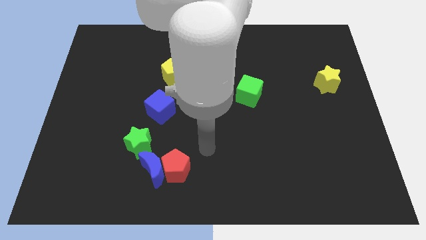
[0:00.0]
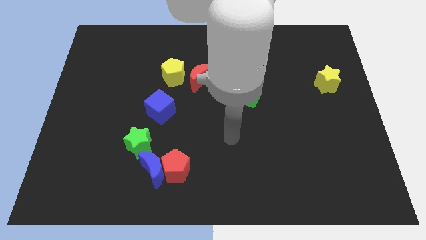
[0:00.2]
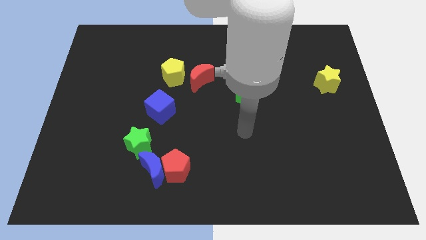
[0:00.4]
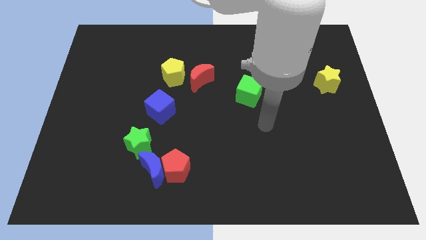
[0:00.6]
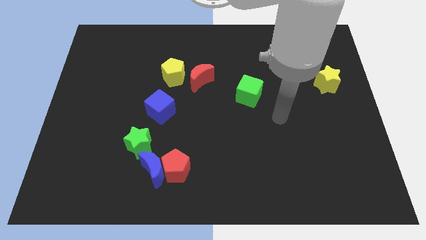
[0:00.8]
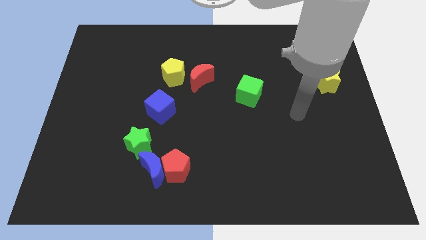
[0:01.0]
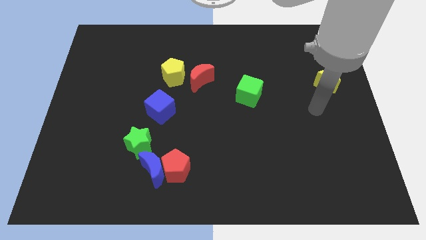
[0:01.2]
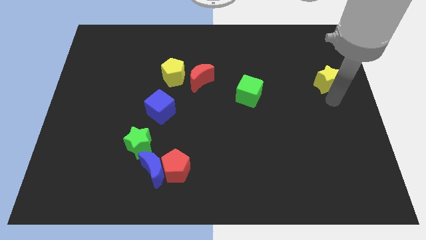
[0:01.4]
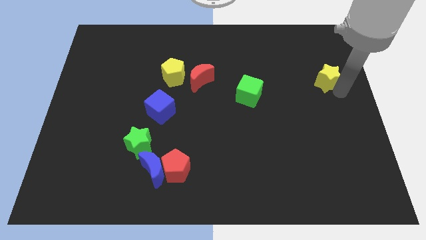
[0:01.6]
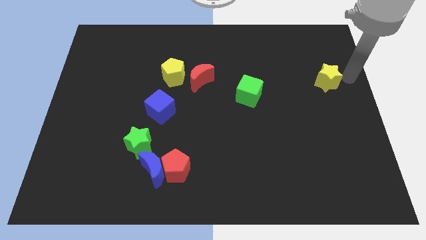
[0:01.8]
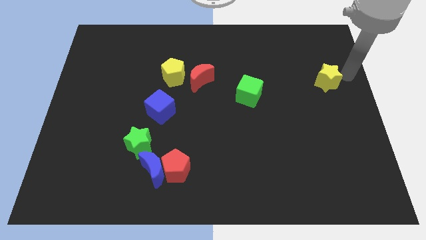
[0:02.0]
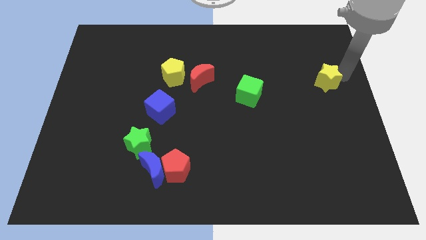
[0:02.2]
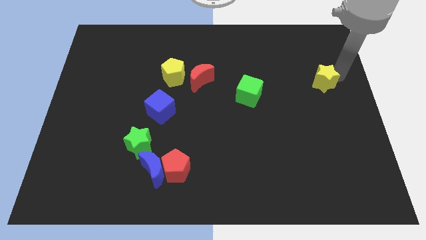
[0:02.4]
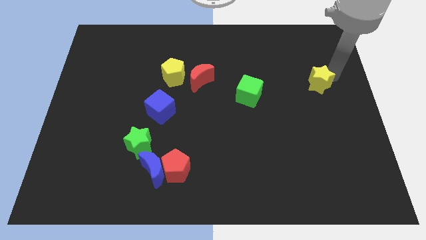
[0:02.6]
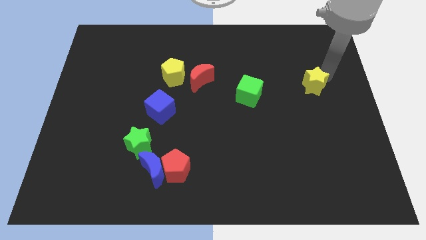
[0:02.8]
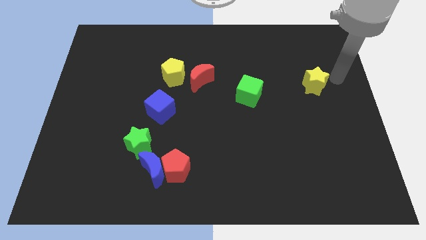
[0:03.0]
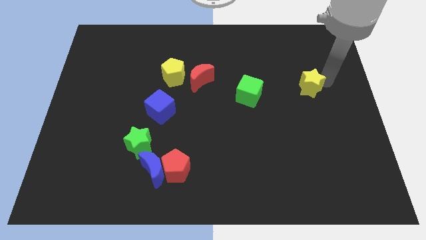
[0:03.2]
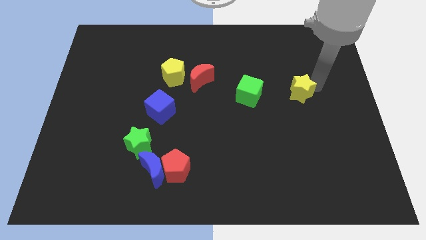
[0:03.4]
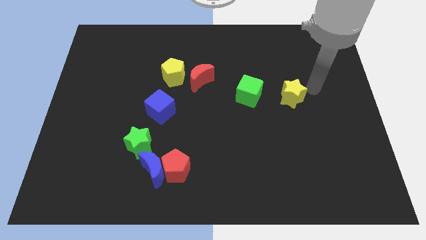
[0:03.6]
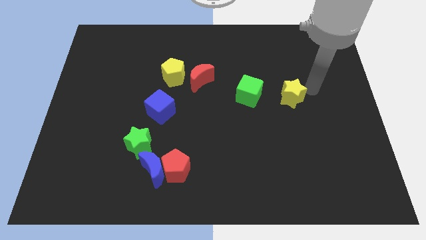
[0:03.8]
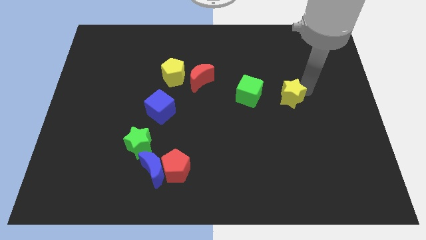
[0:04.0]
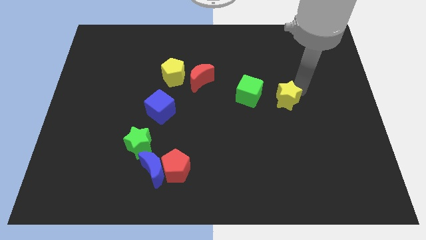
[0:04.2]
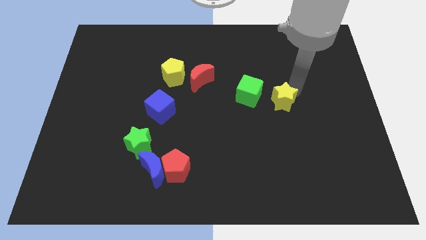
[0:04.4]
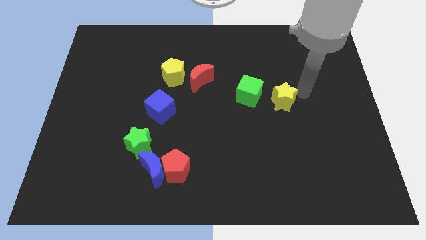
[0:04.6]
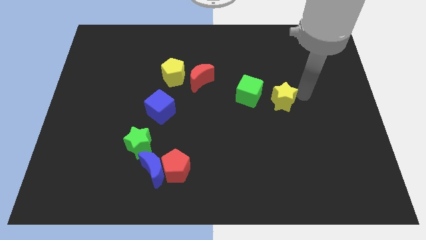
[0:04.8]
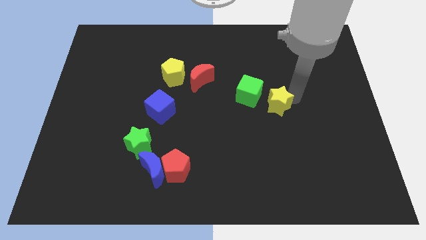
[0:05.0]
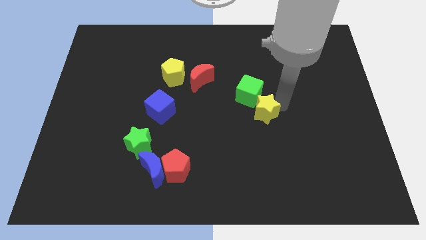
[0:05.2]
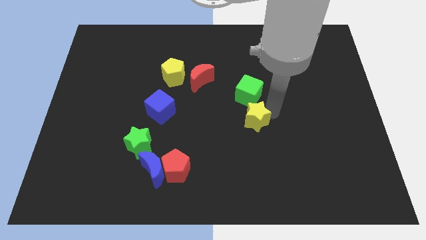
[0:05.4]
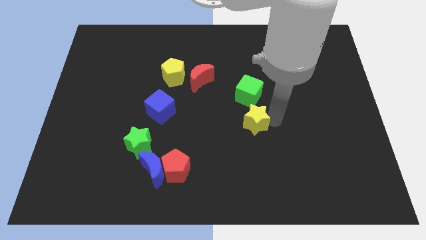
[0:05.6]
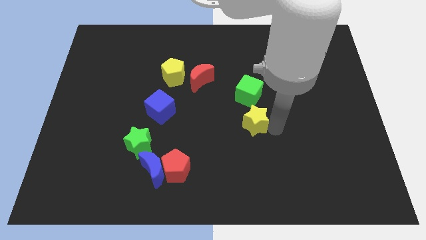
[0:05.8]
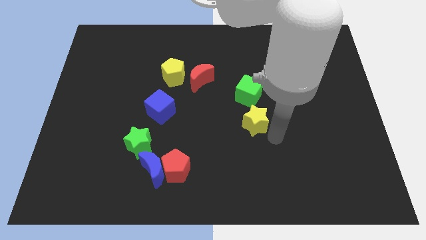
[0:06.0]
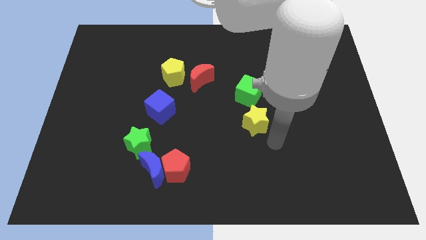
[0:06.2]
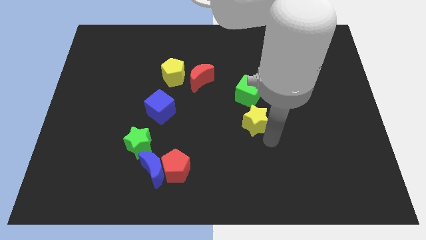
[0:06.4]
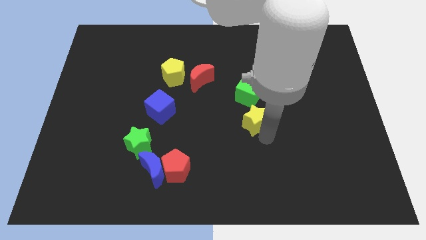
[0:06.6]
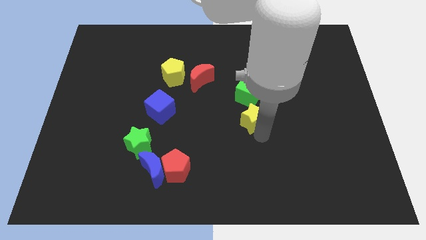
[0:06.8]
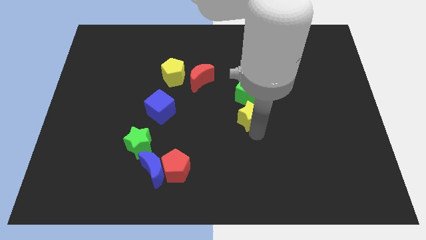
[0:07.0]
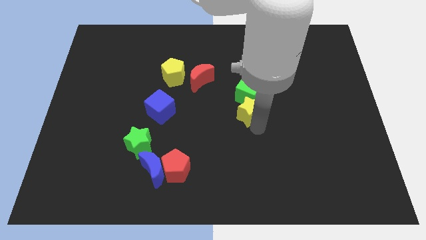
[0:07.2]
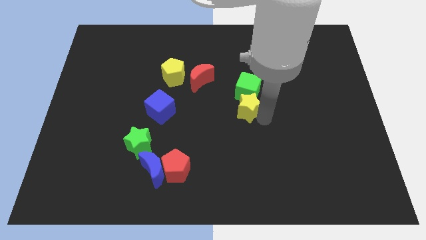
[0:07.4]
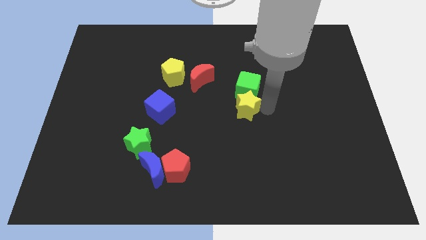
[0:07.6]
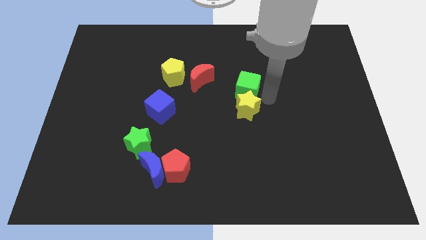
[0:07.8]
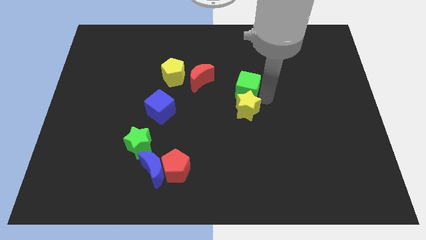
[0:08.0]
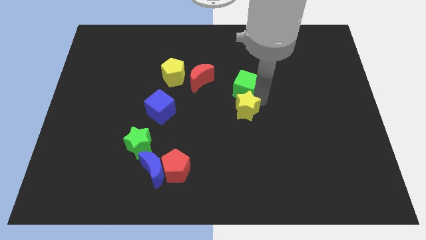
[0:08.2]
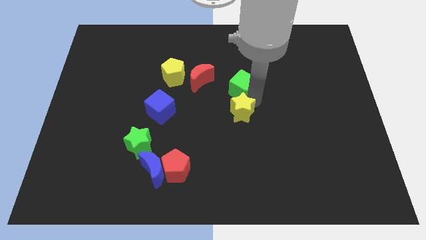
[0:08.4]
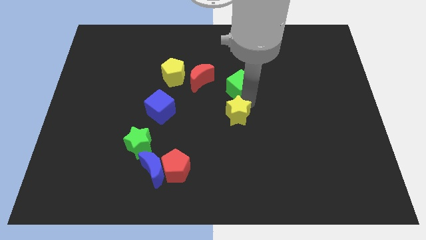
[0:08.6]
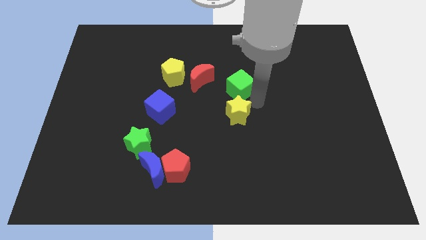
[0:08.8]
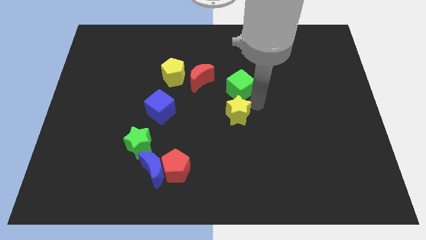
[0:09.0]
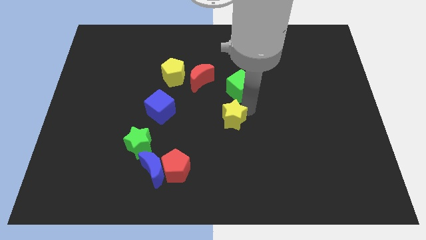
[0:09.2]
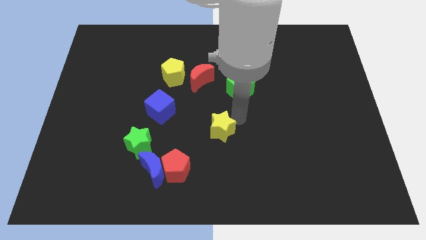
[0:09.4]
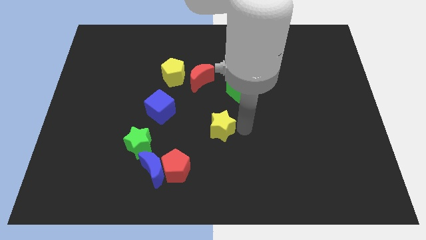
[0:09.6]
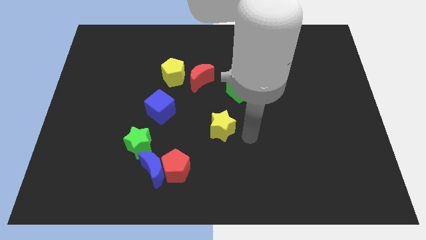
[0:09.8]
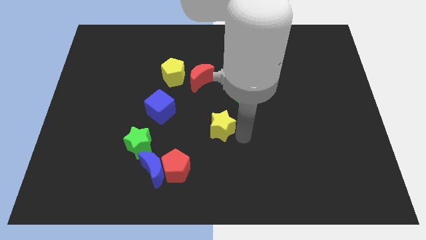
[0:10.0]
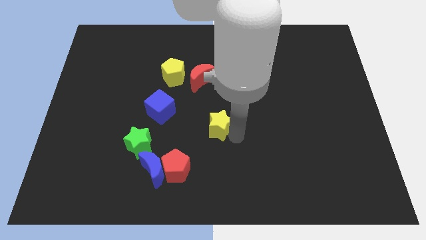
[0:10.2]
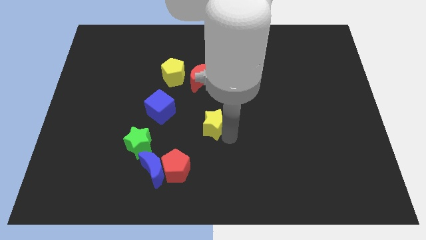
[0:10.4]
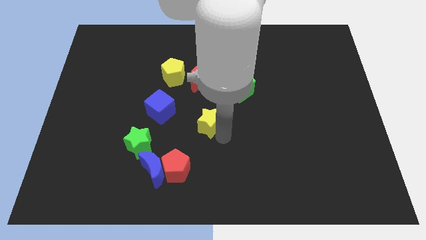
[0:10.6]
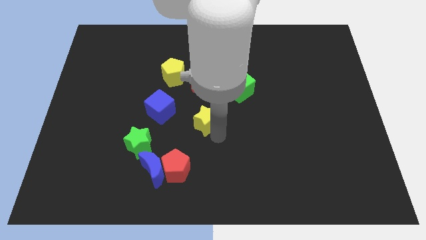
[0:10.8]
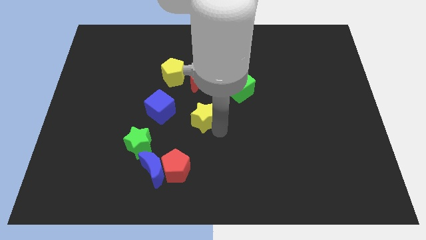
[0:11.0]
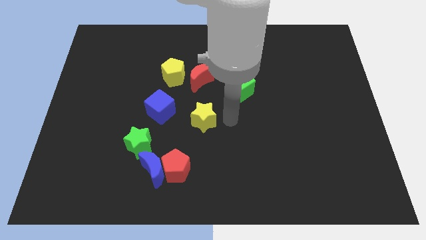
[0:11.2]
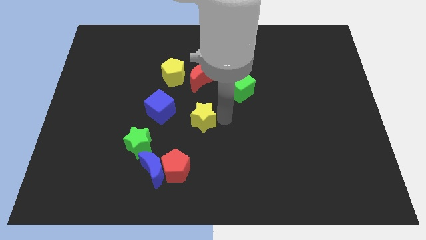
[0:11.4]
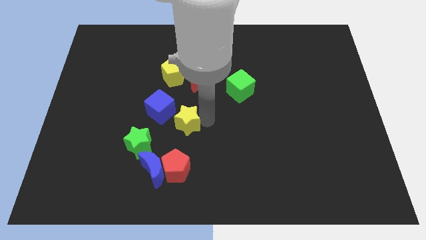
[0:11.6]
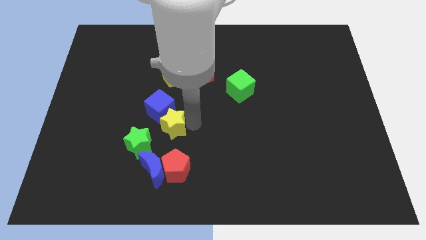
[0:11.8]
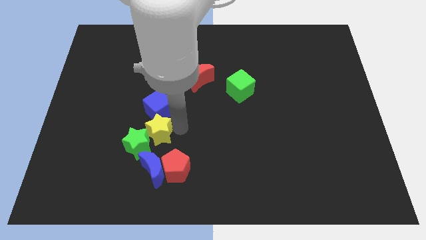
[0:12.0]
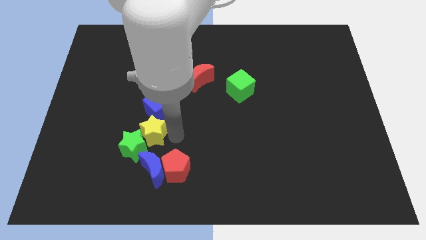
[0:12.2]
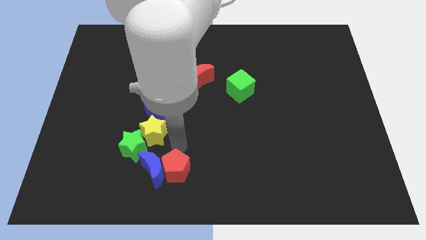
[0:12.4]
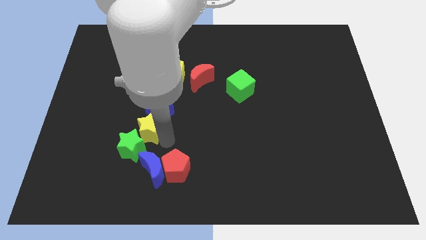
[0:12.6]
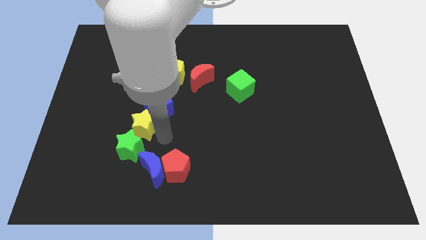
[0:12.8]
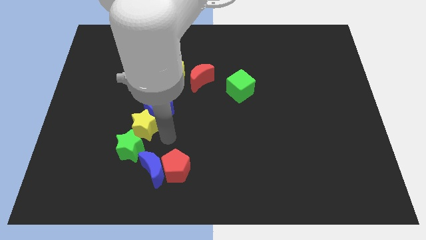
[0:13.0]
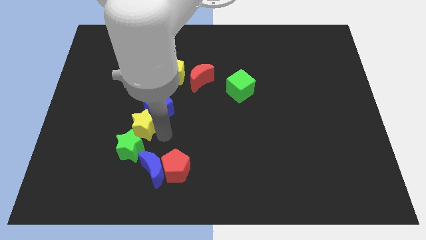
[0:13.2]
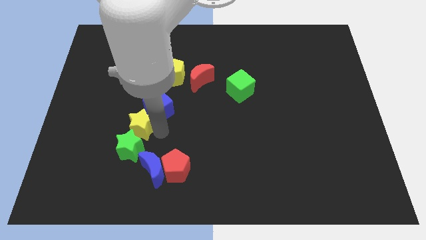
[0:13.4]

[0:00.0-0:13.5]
push the yellow star diagonally up and to the left of the blue moon

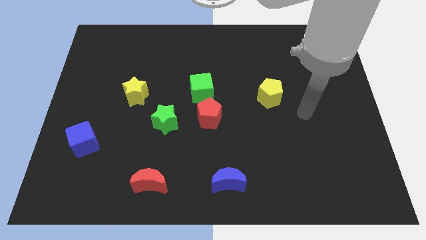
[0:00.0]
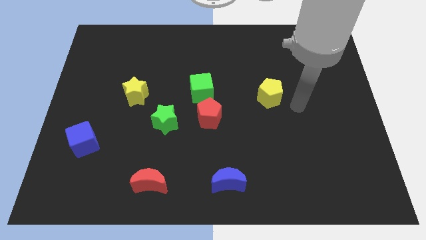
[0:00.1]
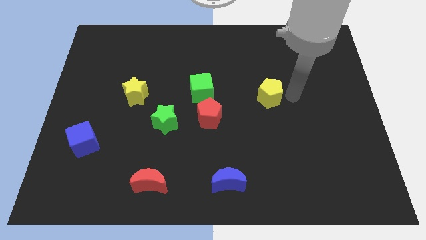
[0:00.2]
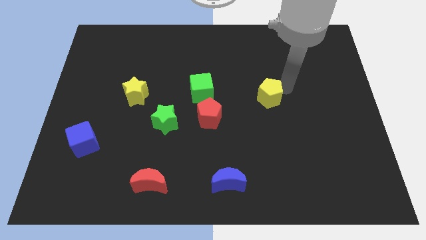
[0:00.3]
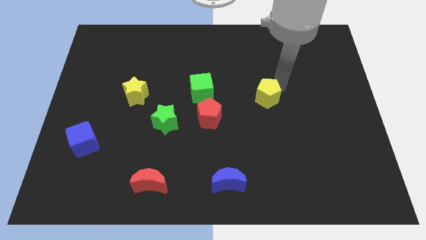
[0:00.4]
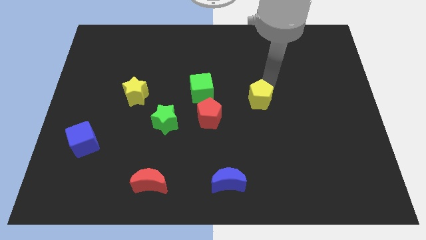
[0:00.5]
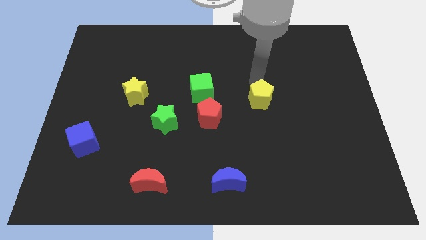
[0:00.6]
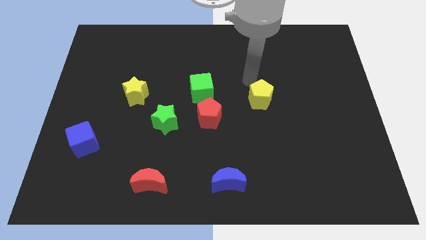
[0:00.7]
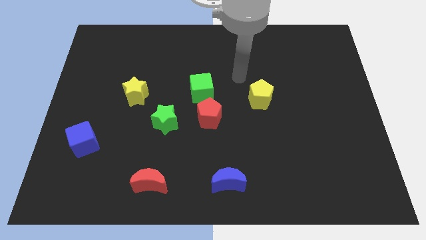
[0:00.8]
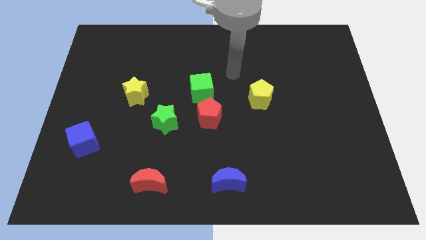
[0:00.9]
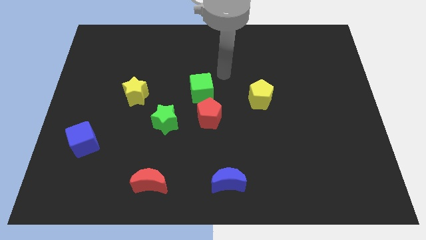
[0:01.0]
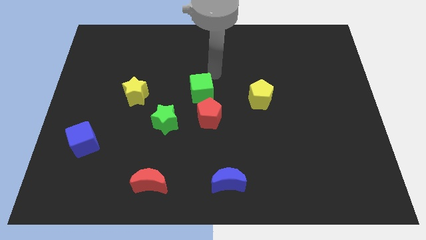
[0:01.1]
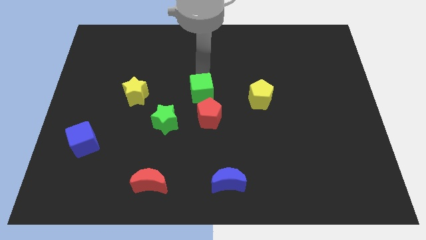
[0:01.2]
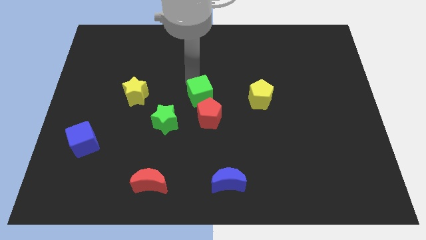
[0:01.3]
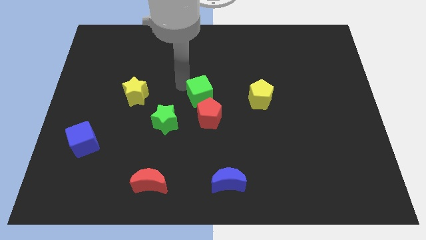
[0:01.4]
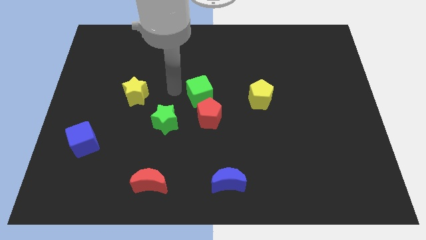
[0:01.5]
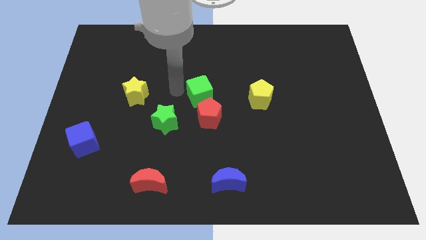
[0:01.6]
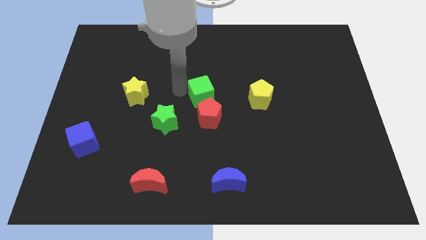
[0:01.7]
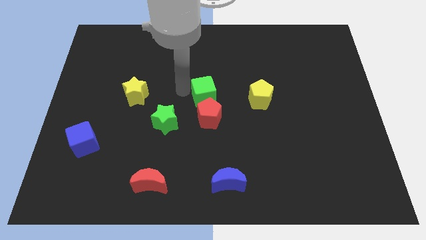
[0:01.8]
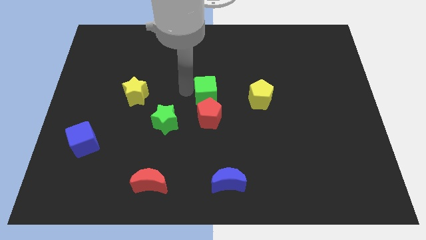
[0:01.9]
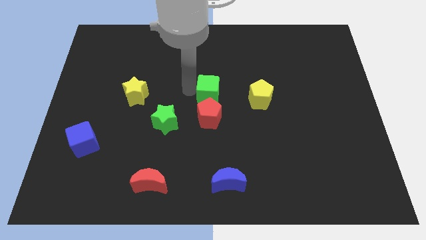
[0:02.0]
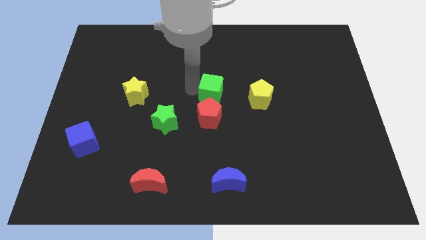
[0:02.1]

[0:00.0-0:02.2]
put the green cube to the top right side of the red pentagon
